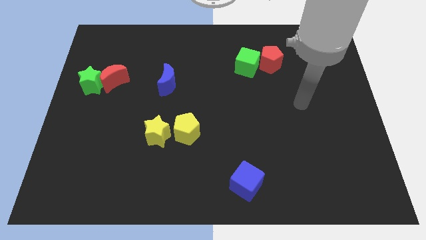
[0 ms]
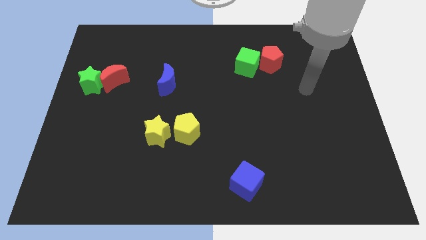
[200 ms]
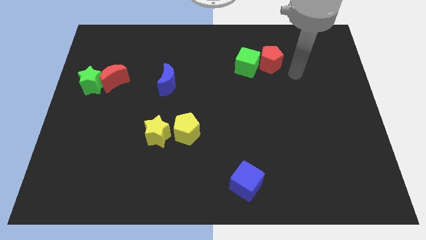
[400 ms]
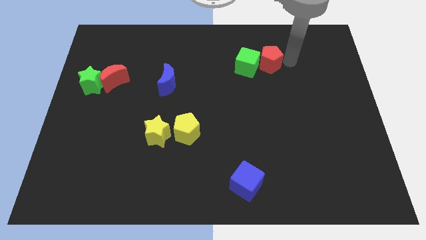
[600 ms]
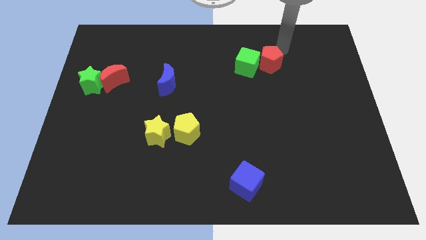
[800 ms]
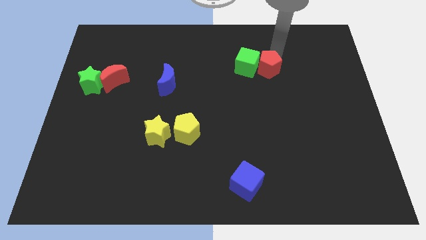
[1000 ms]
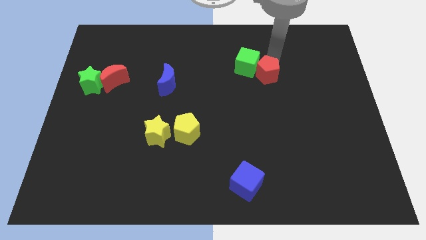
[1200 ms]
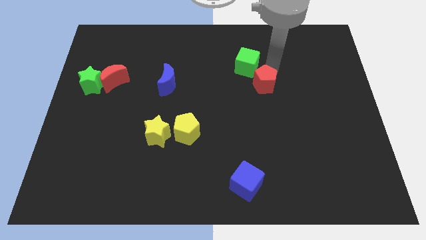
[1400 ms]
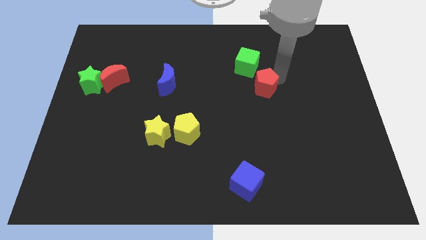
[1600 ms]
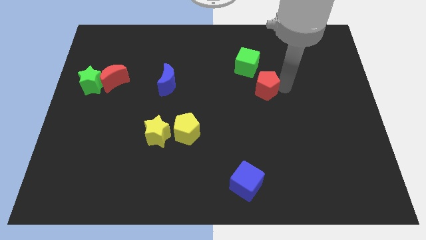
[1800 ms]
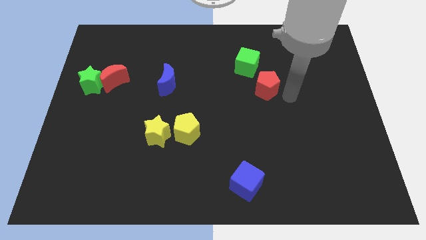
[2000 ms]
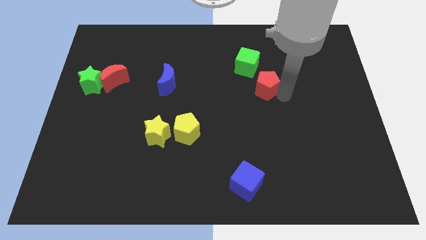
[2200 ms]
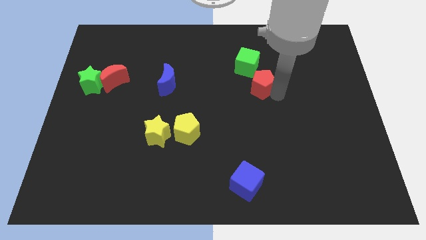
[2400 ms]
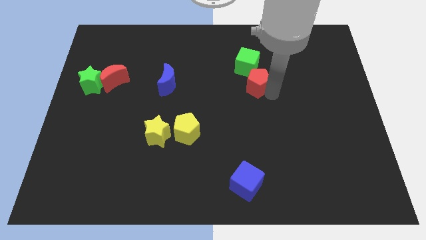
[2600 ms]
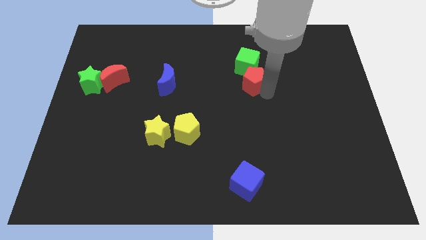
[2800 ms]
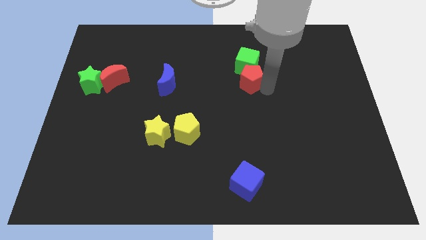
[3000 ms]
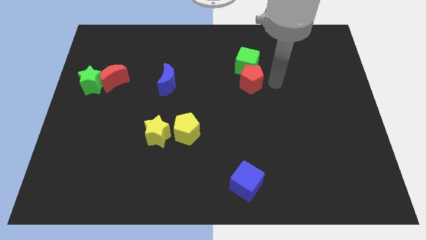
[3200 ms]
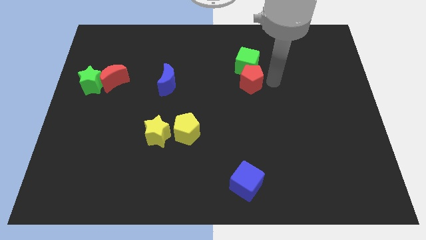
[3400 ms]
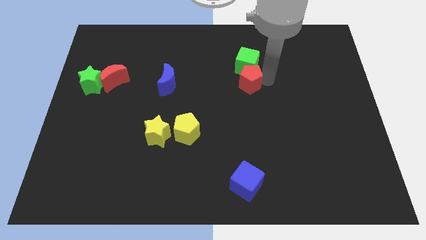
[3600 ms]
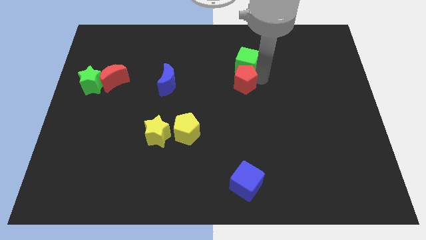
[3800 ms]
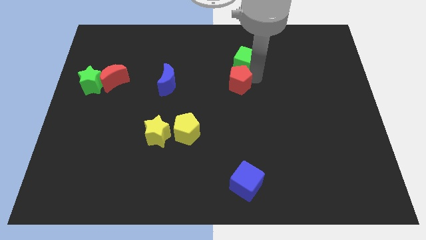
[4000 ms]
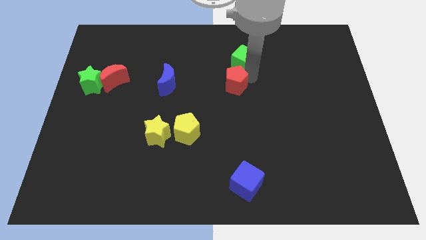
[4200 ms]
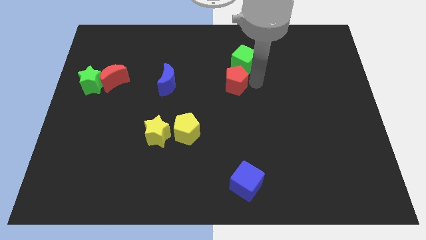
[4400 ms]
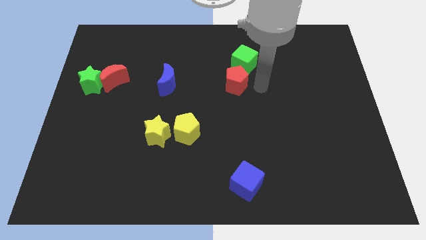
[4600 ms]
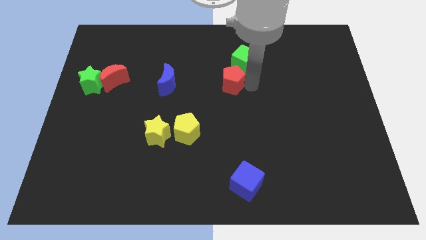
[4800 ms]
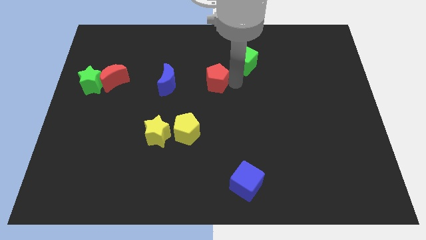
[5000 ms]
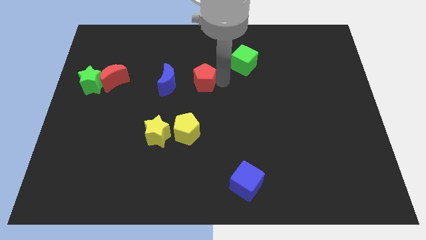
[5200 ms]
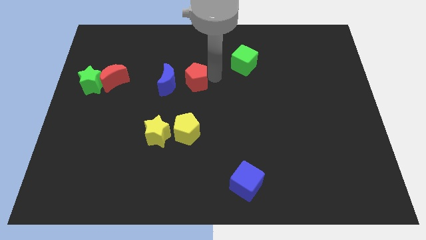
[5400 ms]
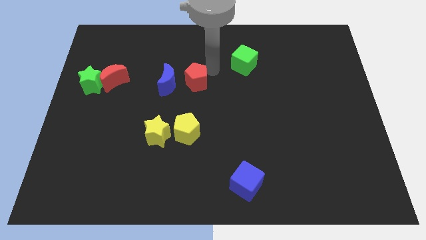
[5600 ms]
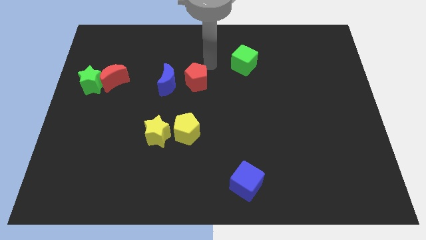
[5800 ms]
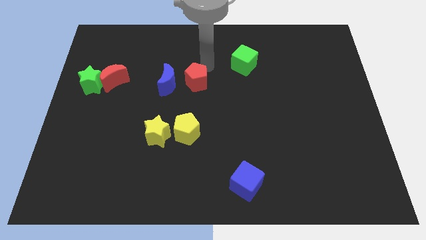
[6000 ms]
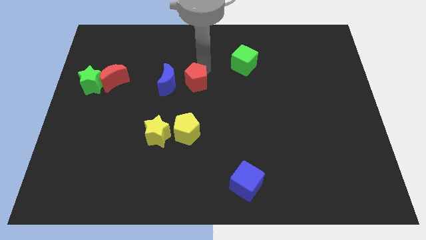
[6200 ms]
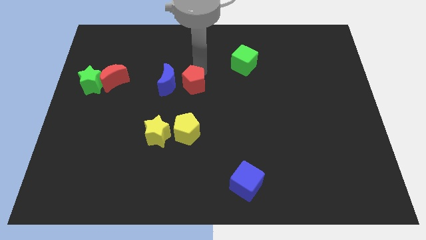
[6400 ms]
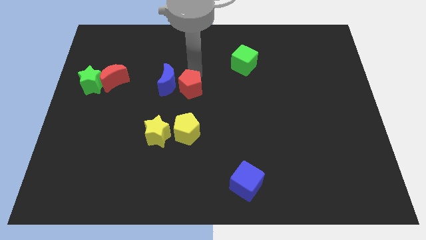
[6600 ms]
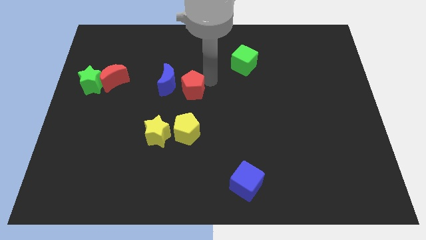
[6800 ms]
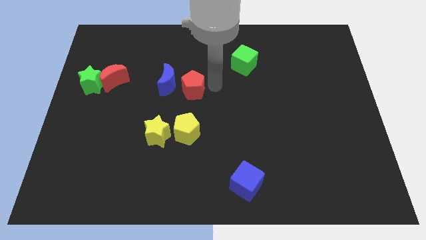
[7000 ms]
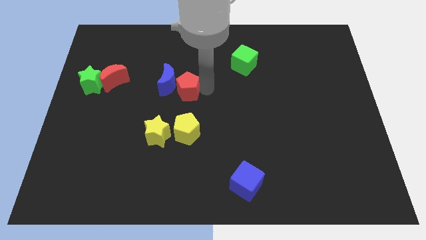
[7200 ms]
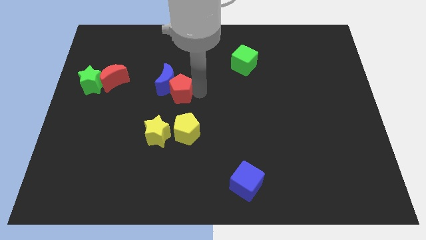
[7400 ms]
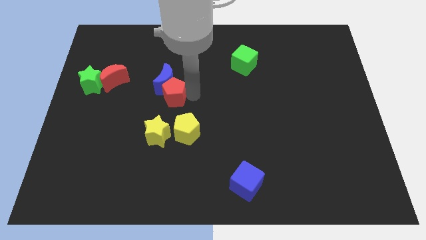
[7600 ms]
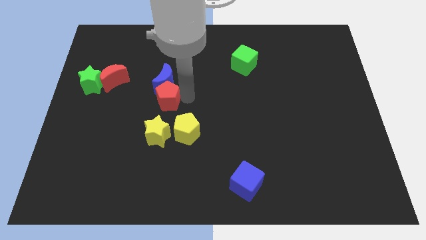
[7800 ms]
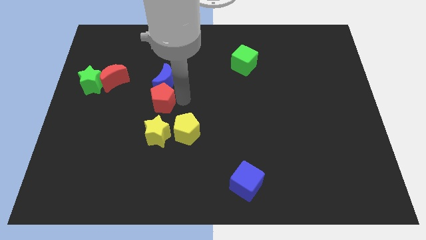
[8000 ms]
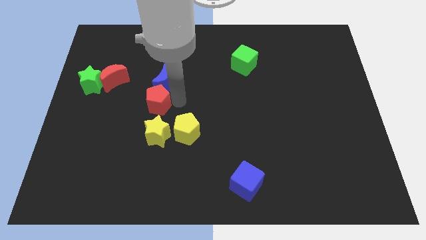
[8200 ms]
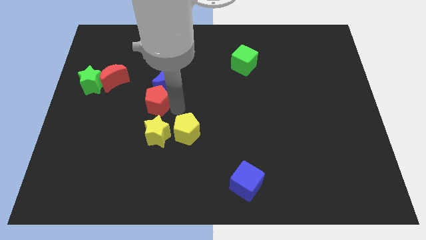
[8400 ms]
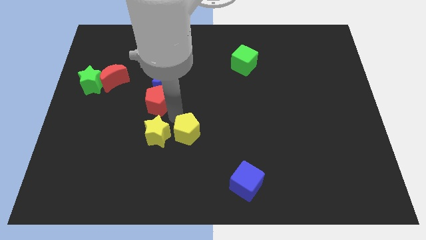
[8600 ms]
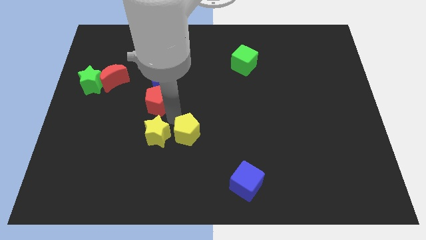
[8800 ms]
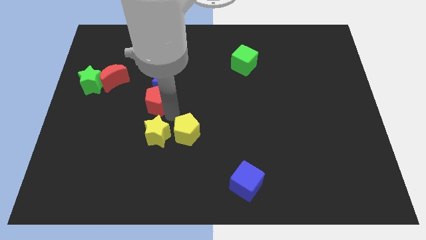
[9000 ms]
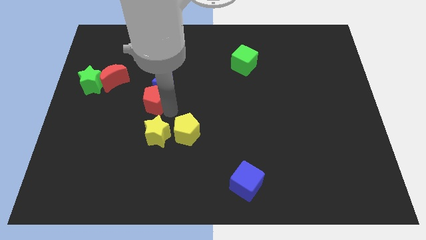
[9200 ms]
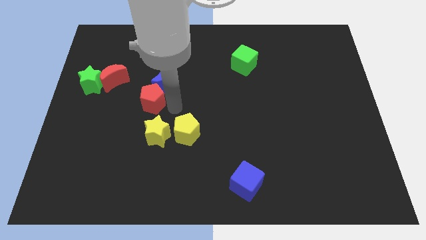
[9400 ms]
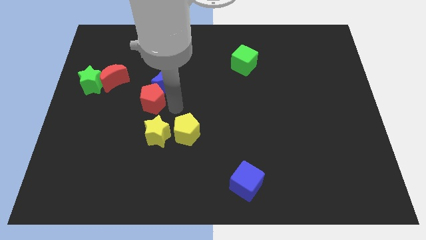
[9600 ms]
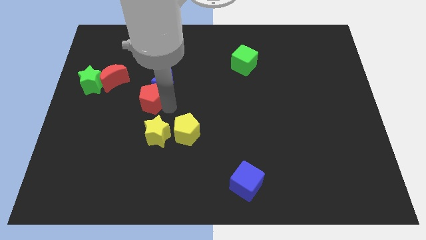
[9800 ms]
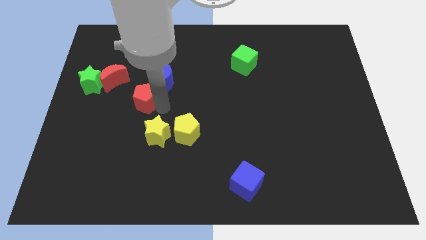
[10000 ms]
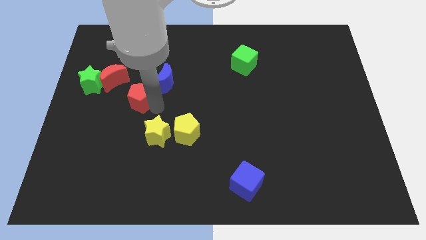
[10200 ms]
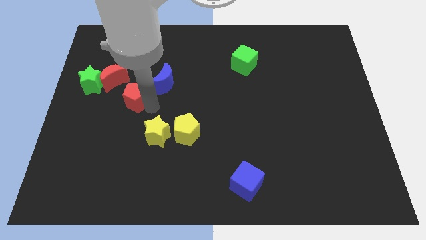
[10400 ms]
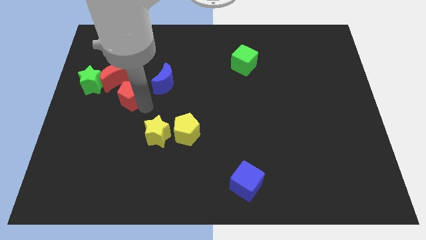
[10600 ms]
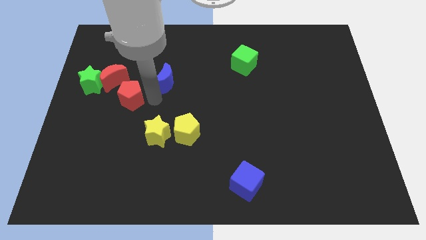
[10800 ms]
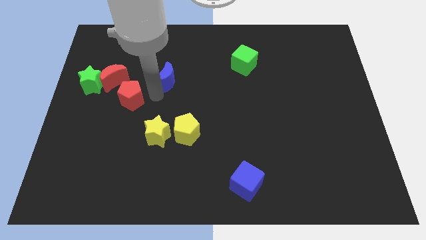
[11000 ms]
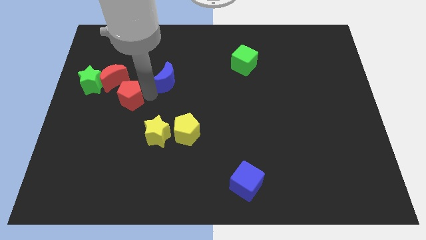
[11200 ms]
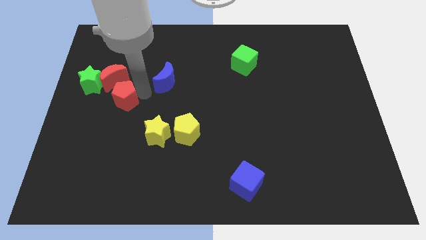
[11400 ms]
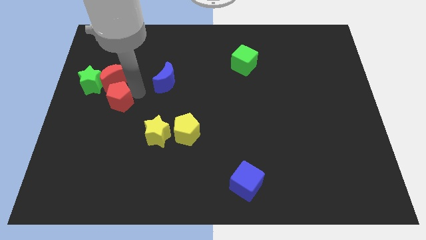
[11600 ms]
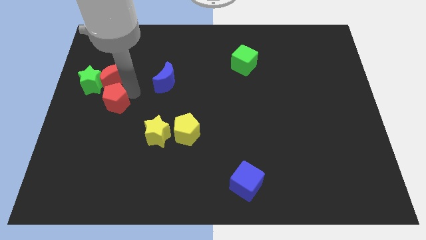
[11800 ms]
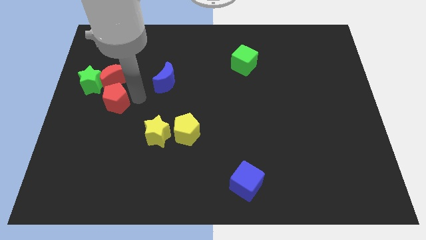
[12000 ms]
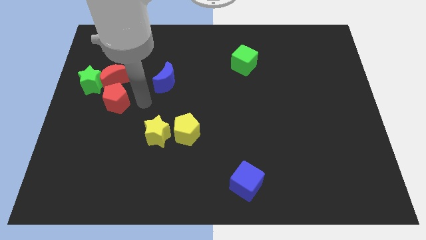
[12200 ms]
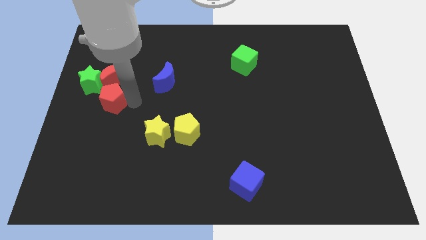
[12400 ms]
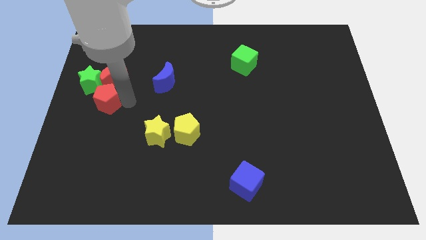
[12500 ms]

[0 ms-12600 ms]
move the red pentagon to the center left
